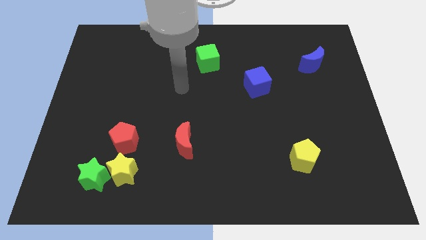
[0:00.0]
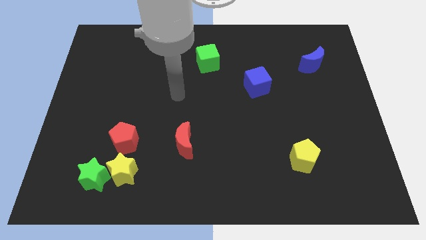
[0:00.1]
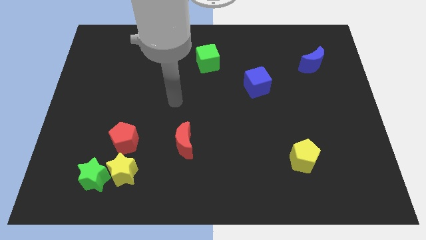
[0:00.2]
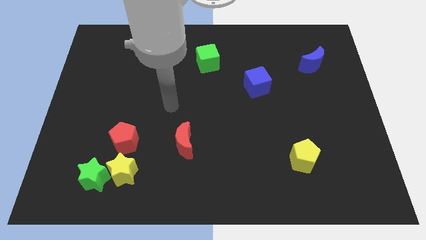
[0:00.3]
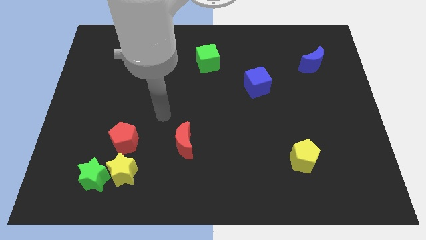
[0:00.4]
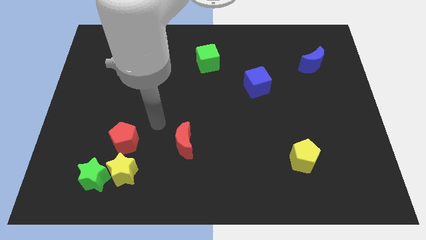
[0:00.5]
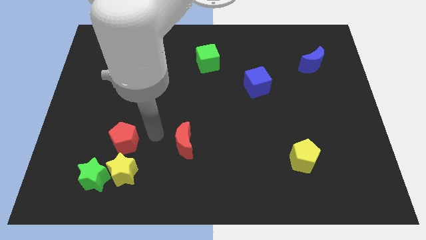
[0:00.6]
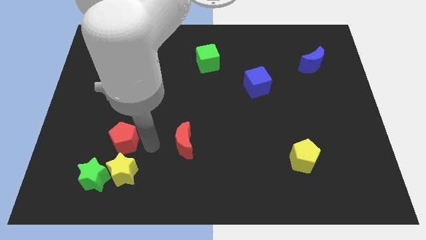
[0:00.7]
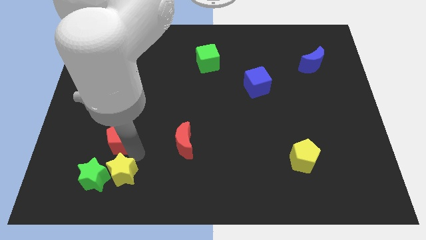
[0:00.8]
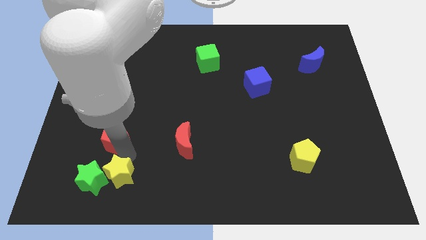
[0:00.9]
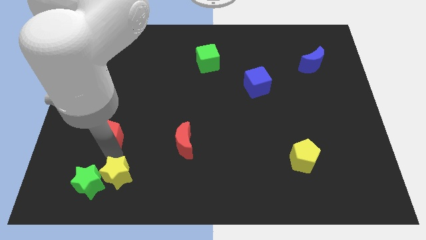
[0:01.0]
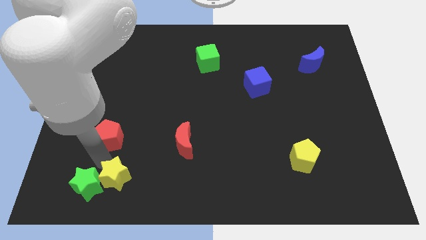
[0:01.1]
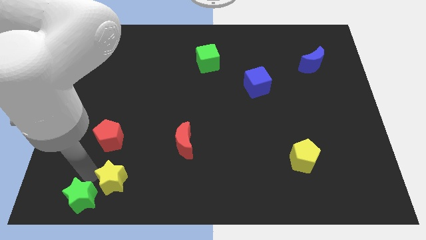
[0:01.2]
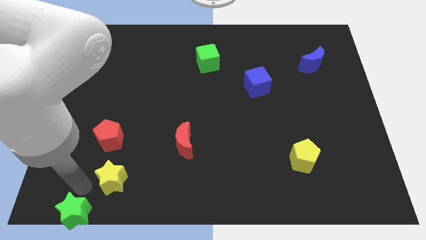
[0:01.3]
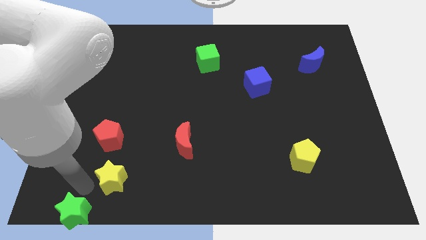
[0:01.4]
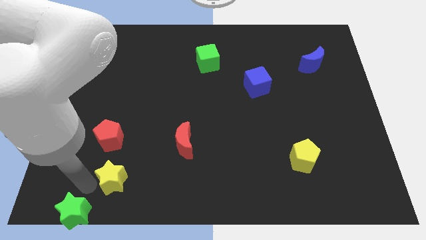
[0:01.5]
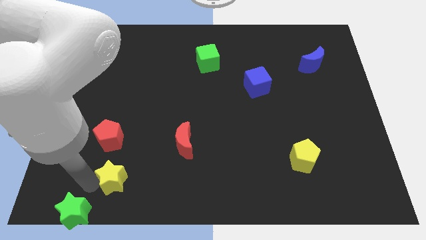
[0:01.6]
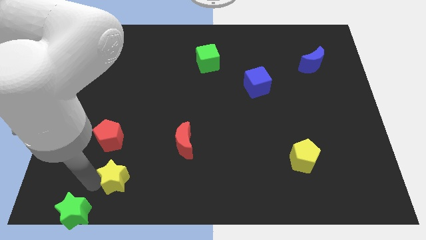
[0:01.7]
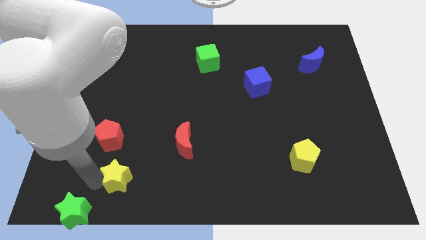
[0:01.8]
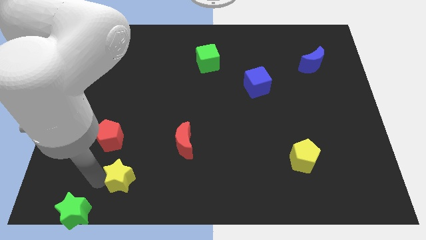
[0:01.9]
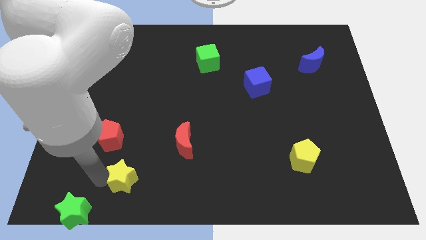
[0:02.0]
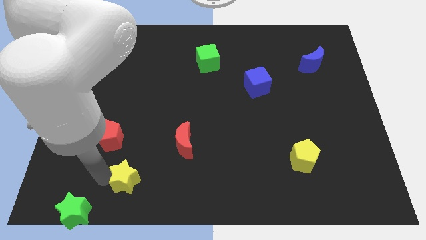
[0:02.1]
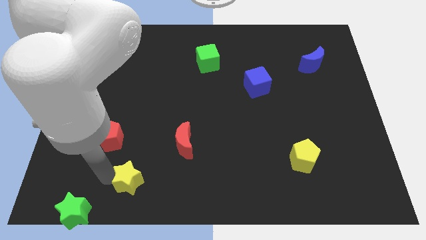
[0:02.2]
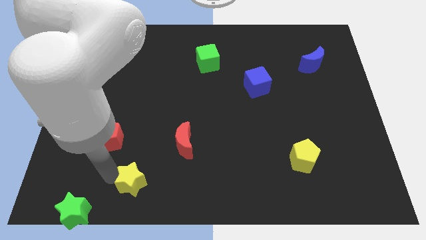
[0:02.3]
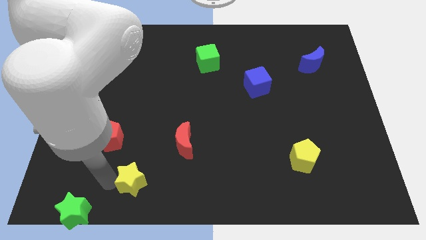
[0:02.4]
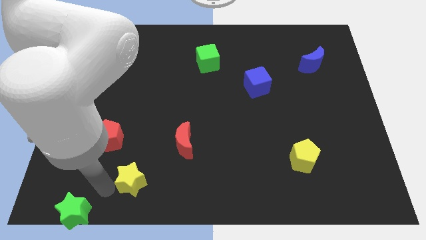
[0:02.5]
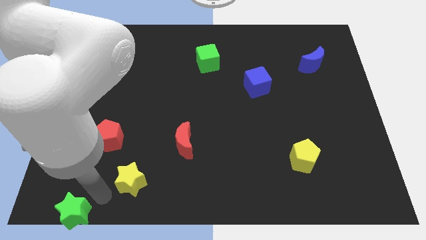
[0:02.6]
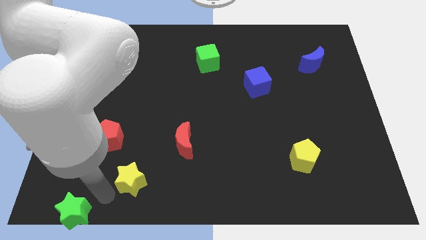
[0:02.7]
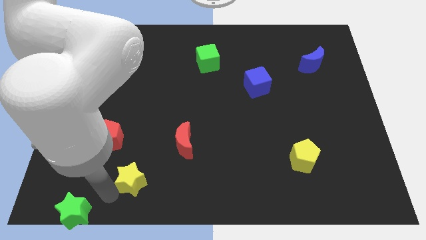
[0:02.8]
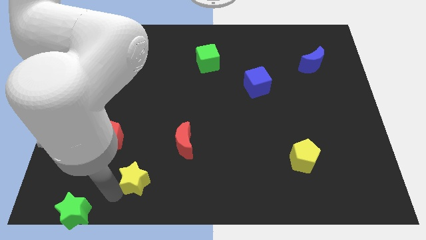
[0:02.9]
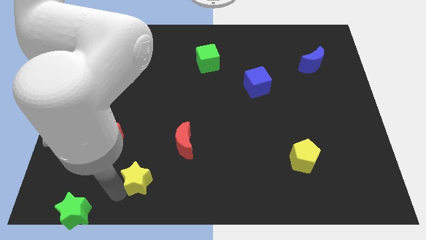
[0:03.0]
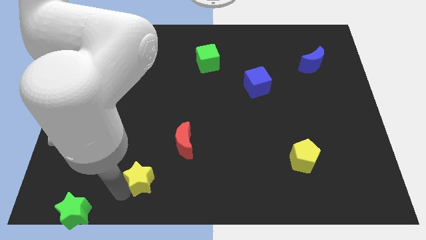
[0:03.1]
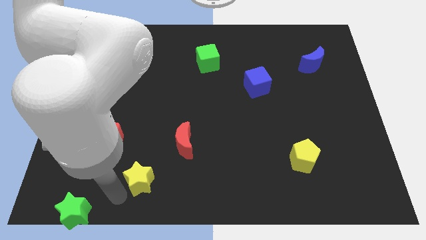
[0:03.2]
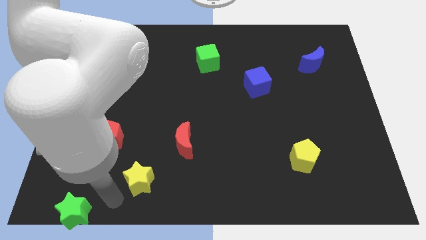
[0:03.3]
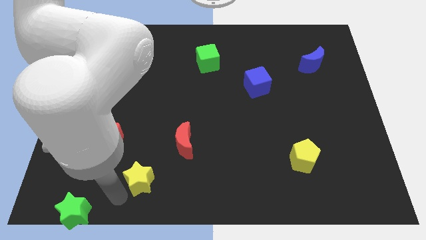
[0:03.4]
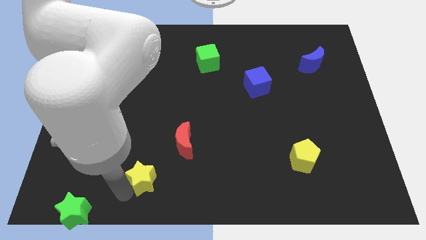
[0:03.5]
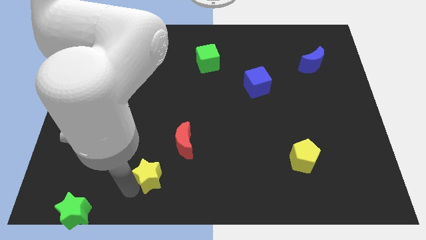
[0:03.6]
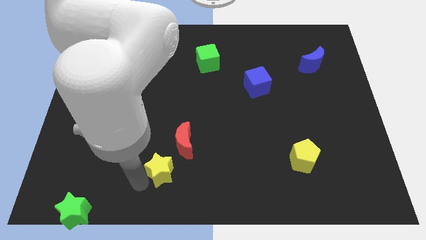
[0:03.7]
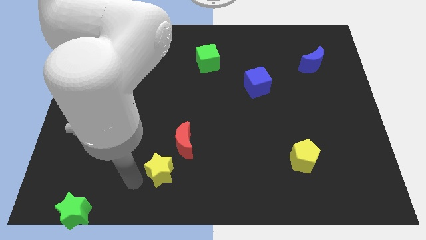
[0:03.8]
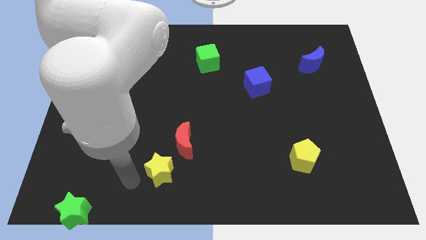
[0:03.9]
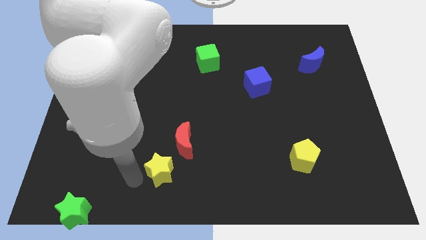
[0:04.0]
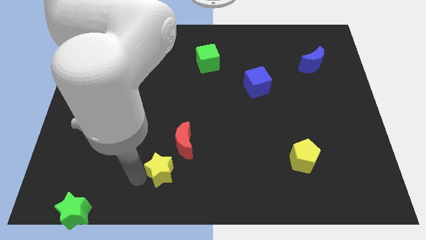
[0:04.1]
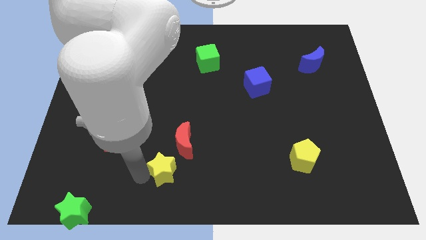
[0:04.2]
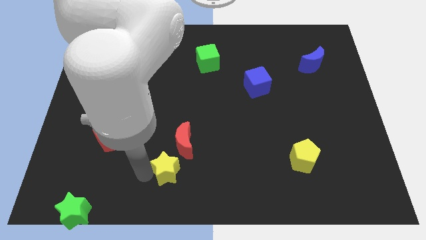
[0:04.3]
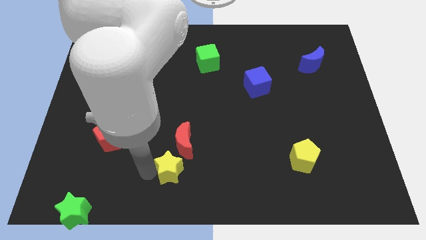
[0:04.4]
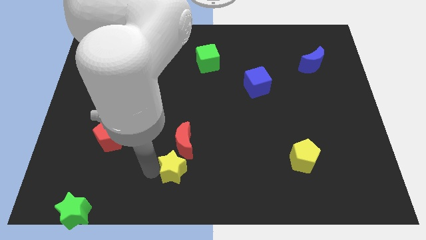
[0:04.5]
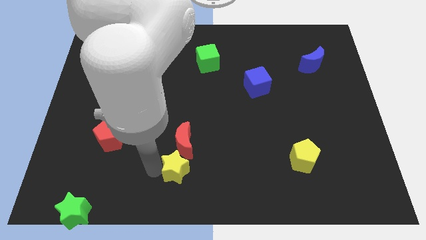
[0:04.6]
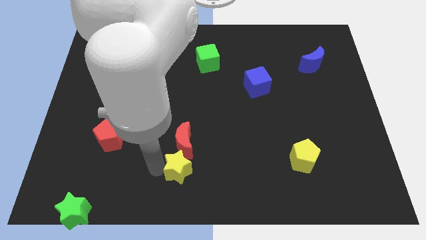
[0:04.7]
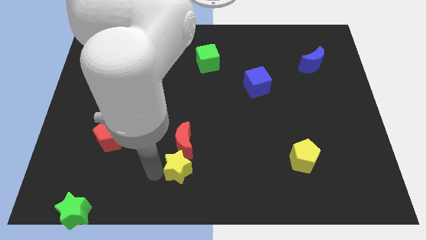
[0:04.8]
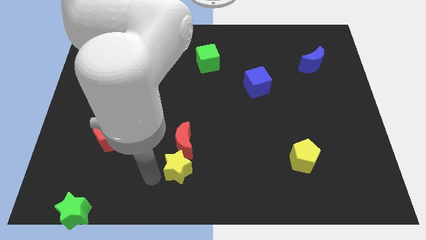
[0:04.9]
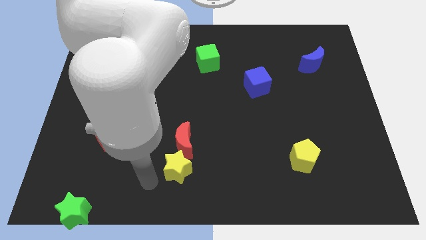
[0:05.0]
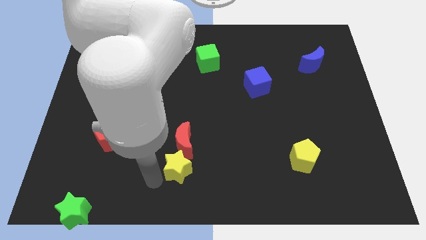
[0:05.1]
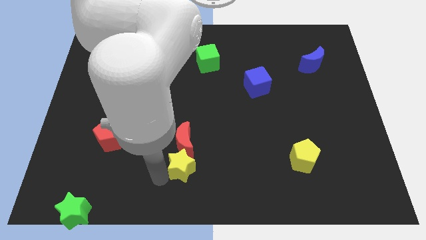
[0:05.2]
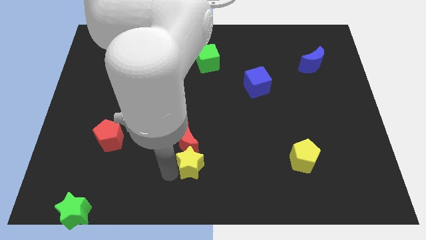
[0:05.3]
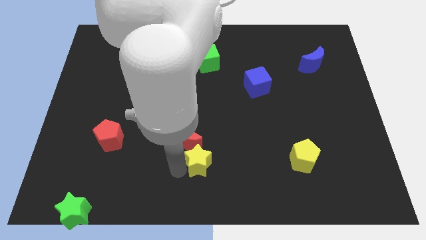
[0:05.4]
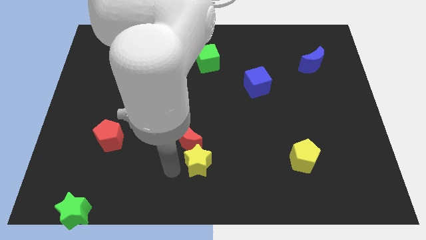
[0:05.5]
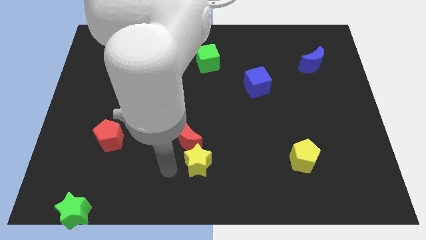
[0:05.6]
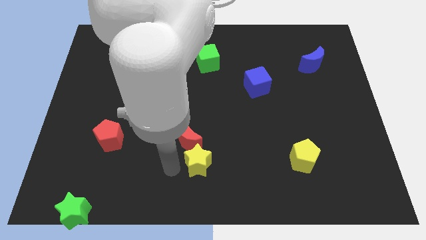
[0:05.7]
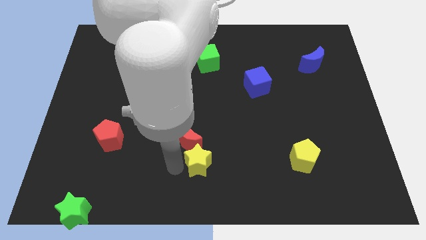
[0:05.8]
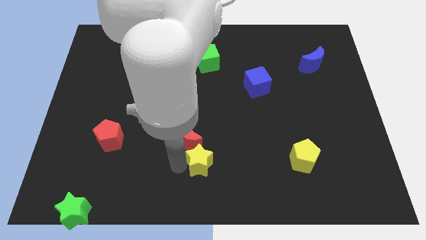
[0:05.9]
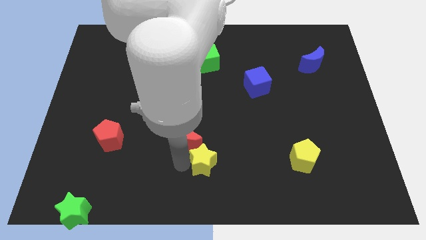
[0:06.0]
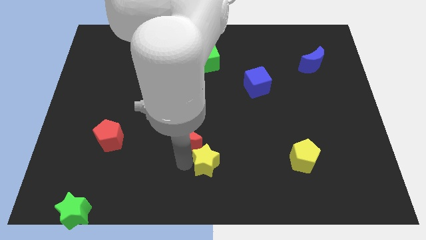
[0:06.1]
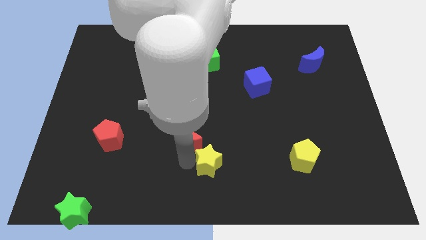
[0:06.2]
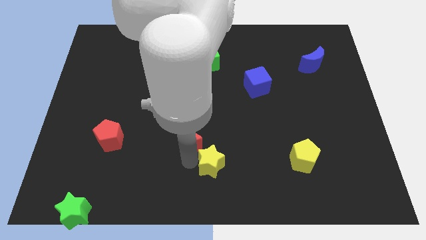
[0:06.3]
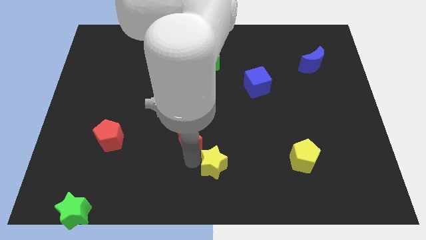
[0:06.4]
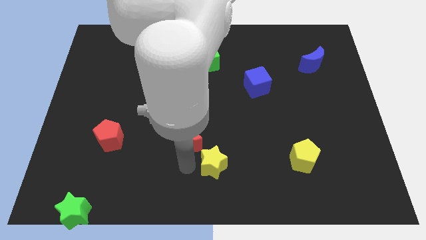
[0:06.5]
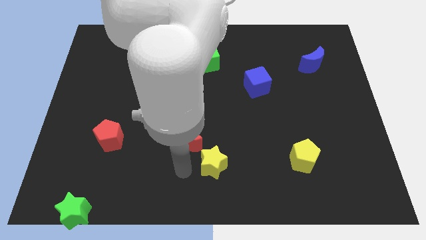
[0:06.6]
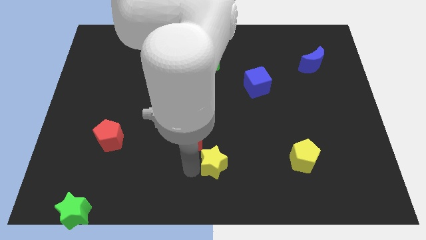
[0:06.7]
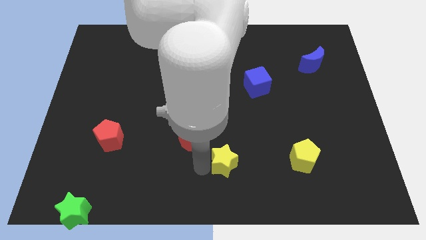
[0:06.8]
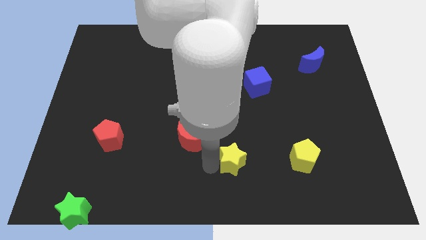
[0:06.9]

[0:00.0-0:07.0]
move the yellow star just left of the yellow pentagon
